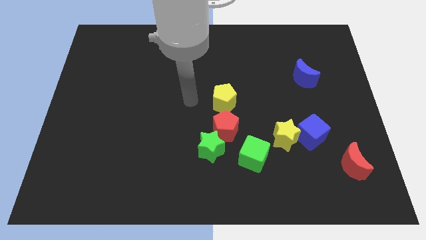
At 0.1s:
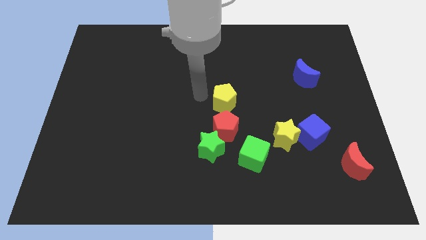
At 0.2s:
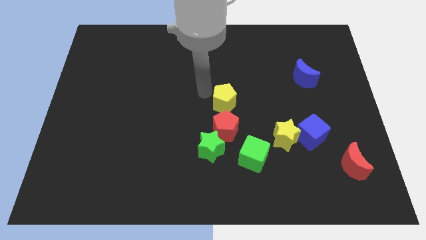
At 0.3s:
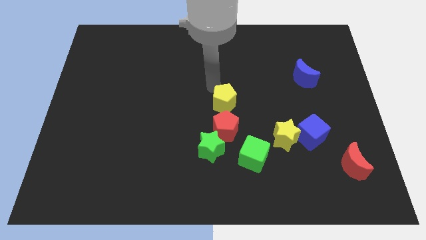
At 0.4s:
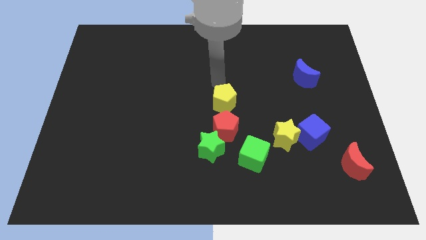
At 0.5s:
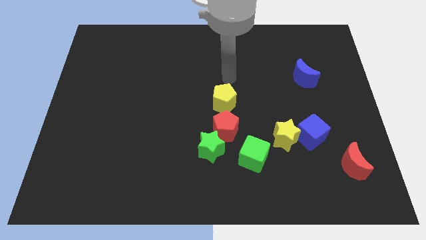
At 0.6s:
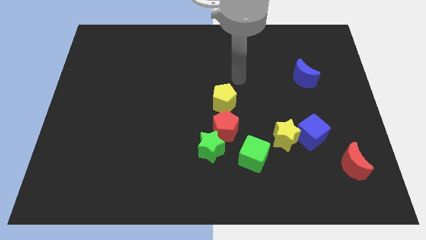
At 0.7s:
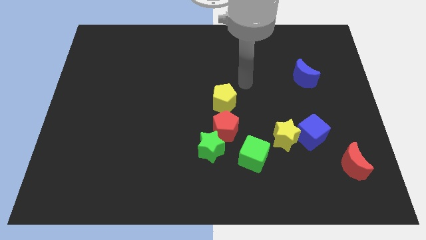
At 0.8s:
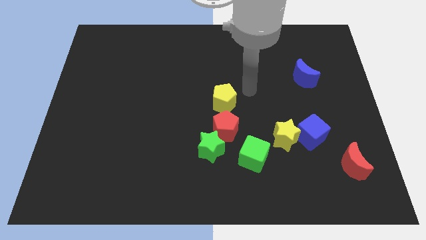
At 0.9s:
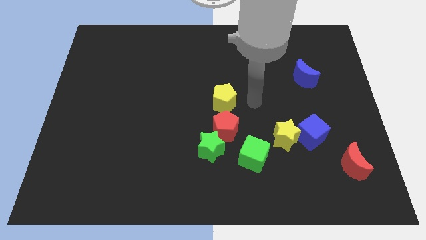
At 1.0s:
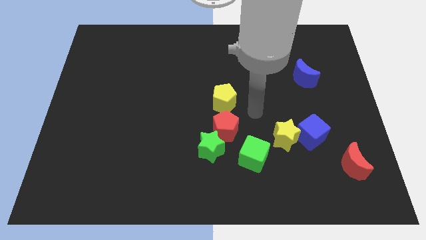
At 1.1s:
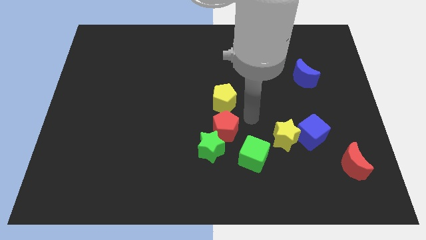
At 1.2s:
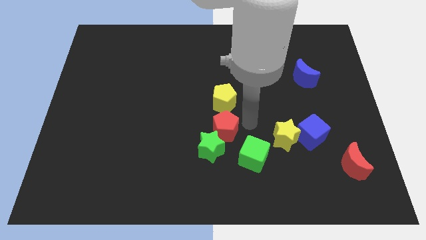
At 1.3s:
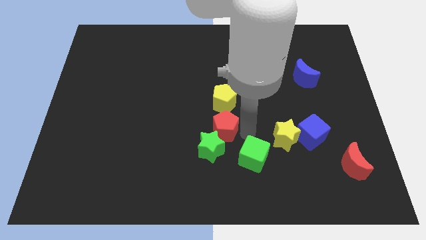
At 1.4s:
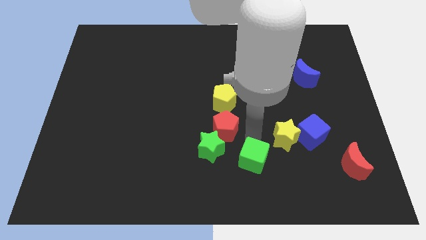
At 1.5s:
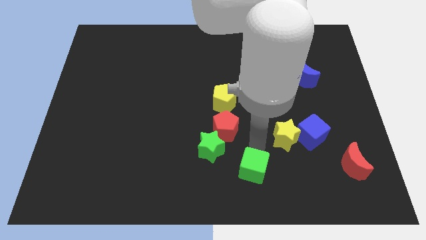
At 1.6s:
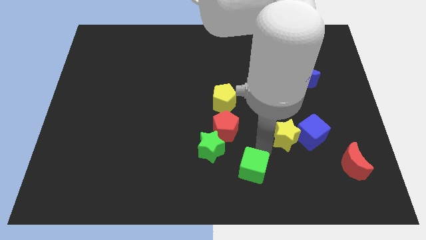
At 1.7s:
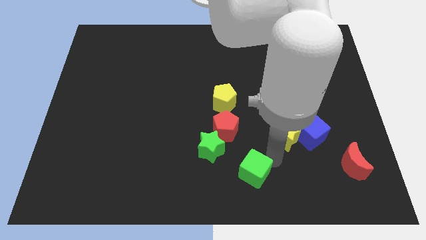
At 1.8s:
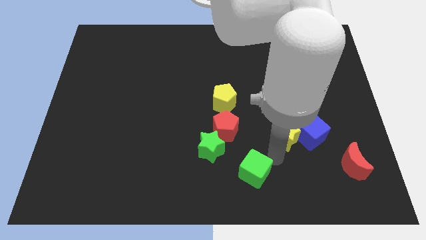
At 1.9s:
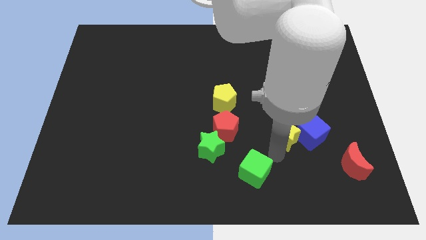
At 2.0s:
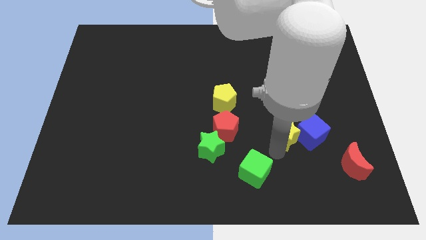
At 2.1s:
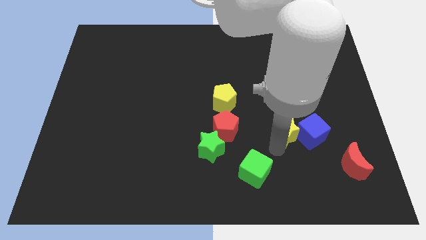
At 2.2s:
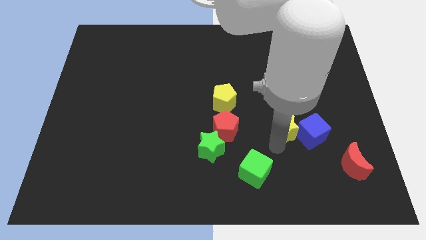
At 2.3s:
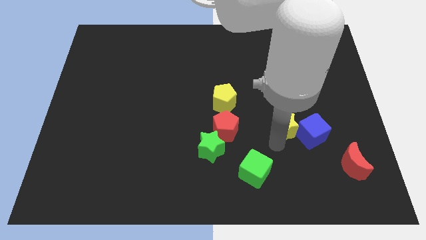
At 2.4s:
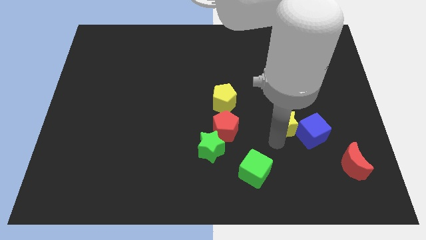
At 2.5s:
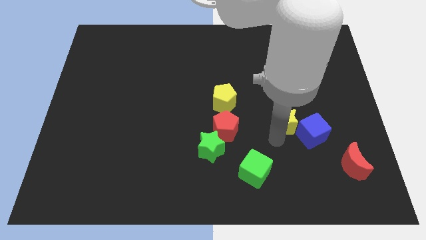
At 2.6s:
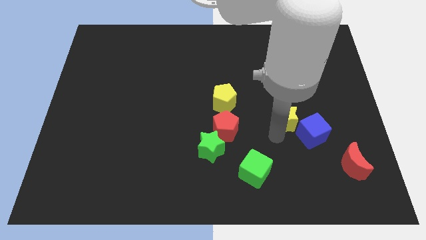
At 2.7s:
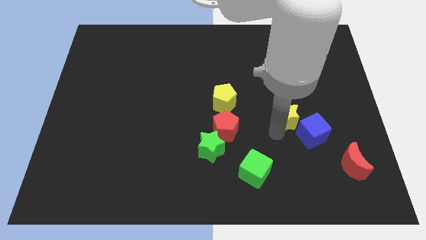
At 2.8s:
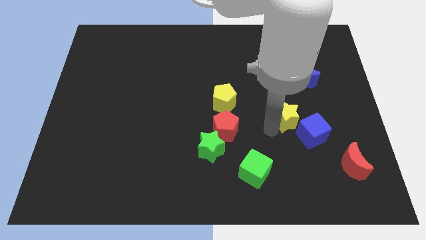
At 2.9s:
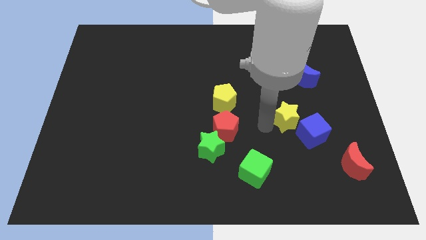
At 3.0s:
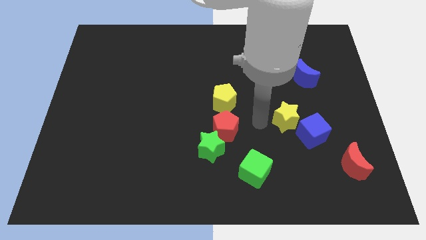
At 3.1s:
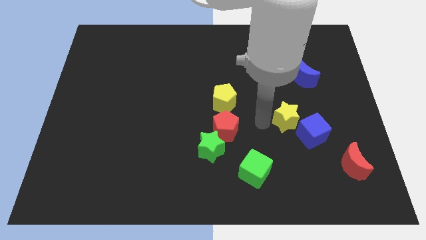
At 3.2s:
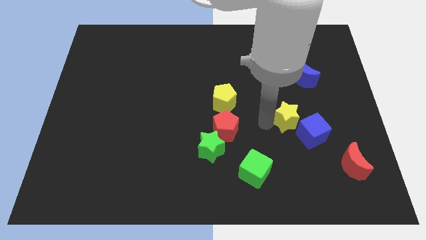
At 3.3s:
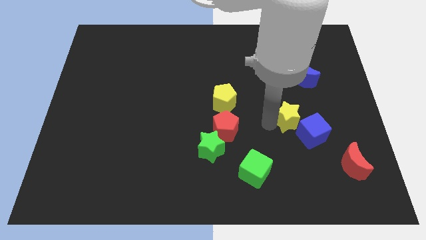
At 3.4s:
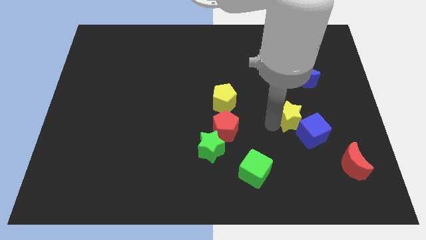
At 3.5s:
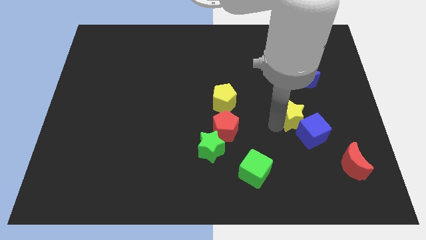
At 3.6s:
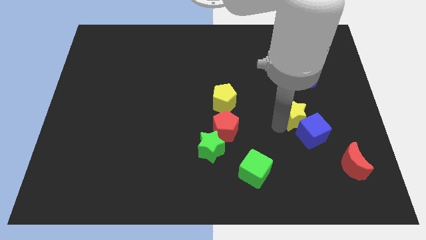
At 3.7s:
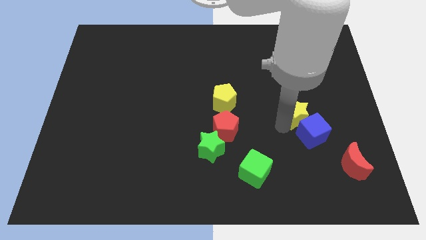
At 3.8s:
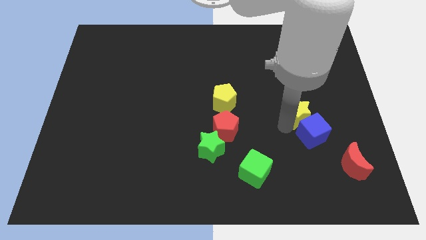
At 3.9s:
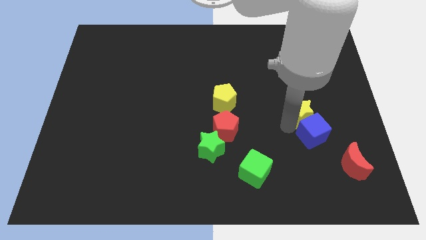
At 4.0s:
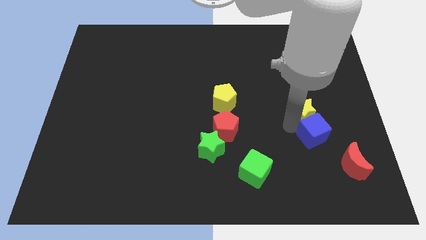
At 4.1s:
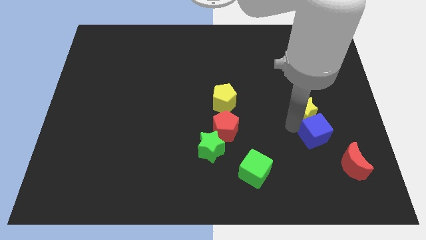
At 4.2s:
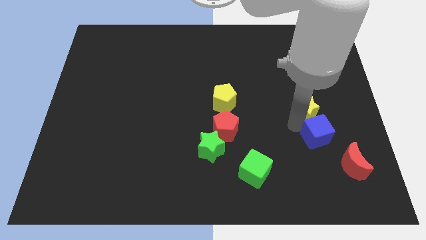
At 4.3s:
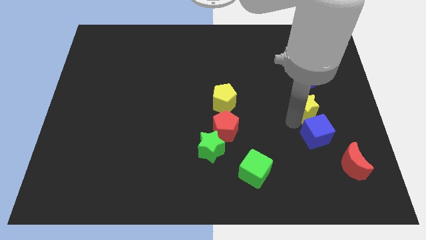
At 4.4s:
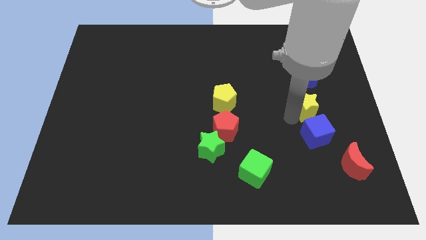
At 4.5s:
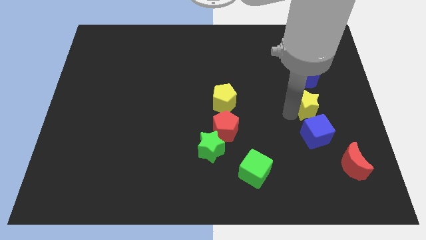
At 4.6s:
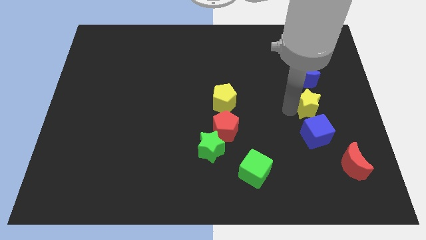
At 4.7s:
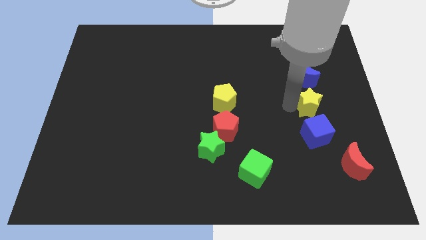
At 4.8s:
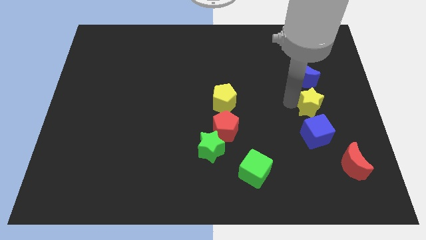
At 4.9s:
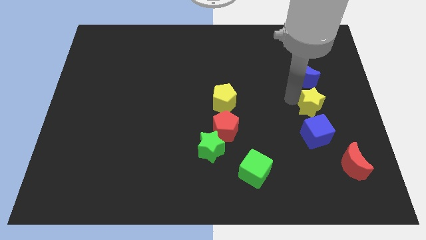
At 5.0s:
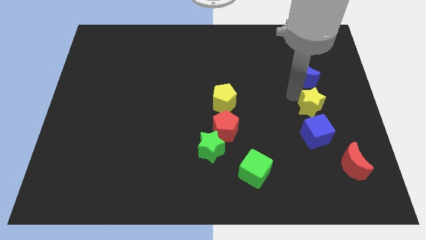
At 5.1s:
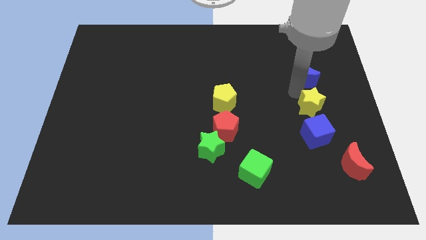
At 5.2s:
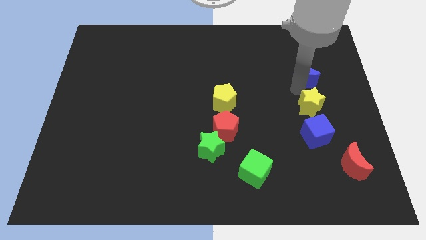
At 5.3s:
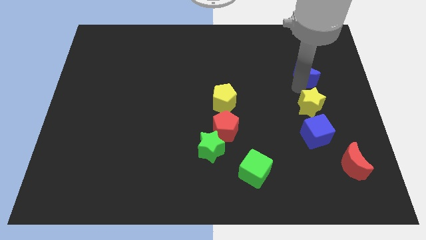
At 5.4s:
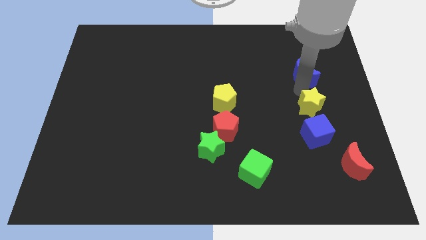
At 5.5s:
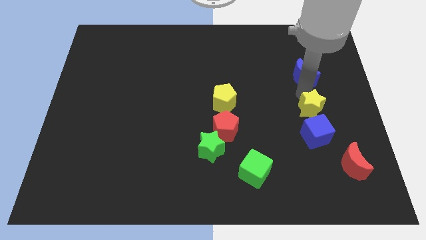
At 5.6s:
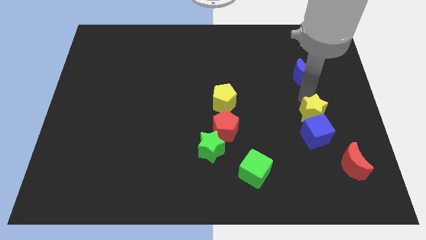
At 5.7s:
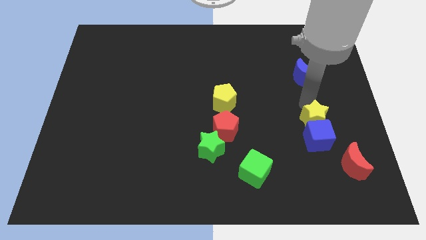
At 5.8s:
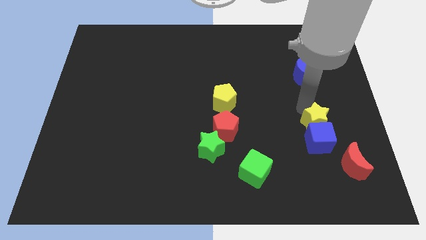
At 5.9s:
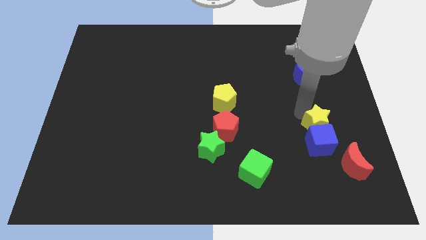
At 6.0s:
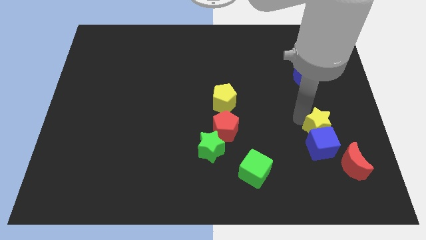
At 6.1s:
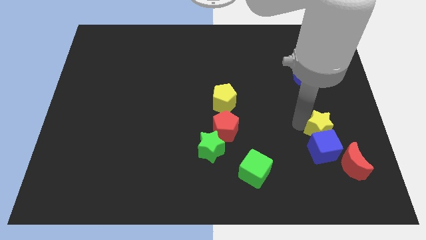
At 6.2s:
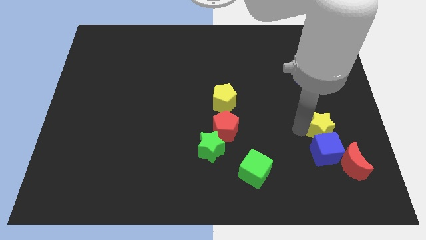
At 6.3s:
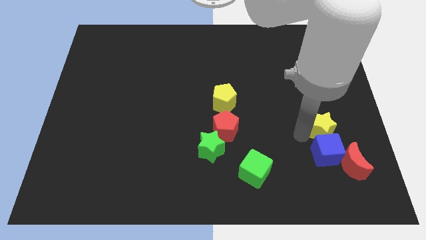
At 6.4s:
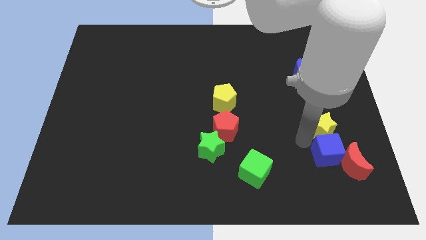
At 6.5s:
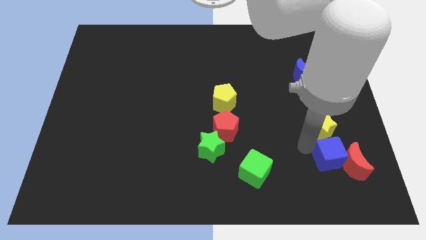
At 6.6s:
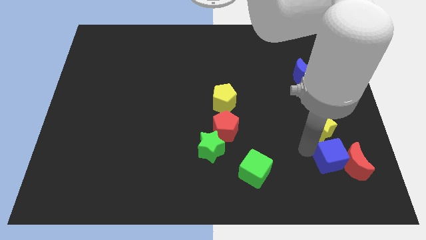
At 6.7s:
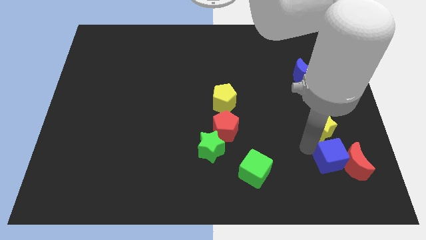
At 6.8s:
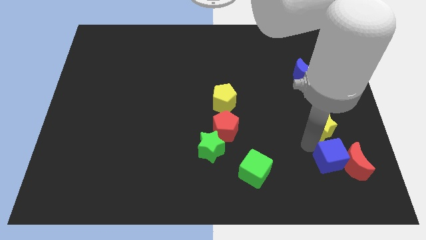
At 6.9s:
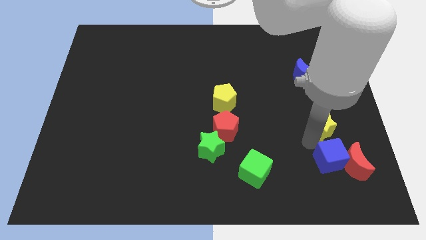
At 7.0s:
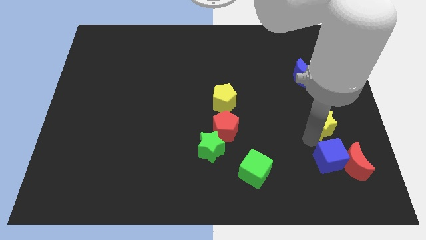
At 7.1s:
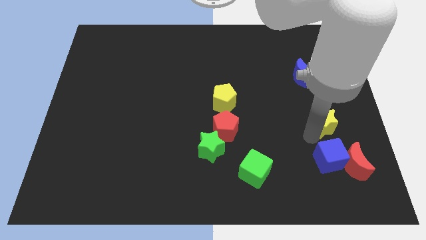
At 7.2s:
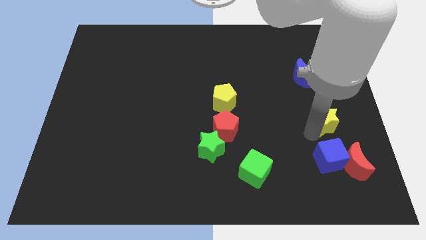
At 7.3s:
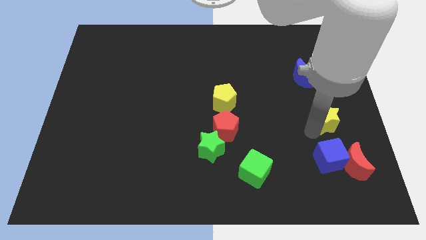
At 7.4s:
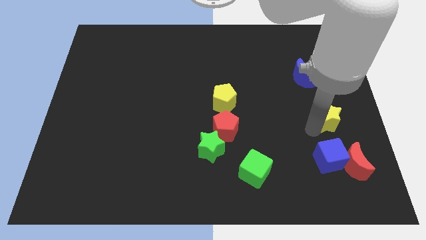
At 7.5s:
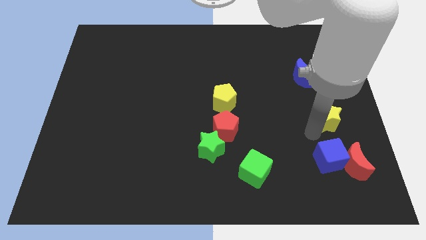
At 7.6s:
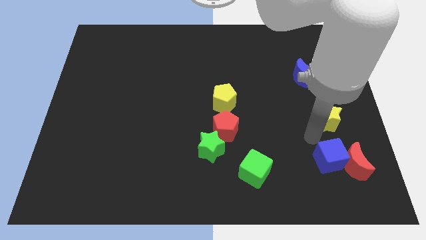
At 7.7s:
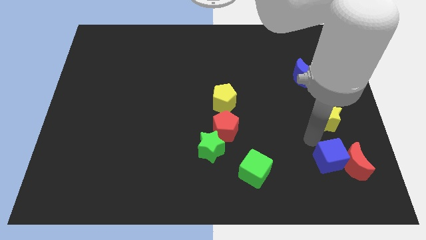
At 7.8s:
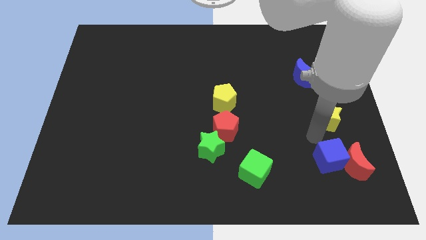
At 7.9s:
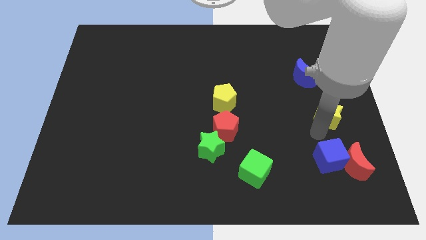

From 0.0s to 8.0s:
move the yellow star to the center right
